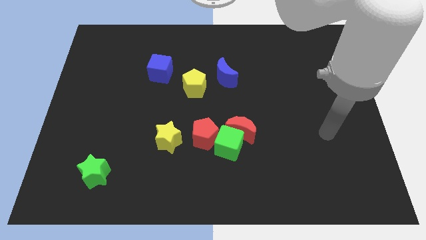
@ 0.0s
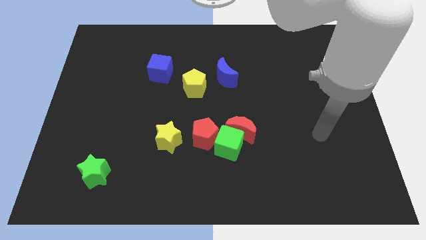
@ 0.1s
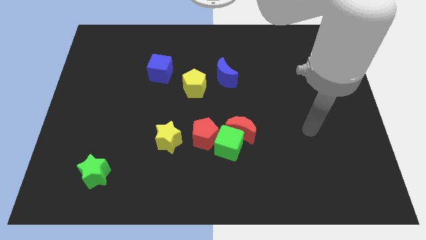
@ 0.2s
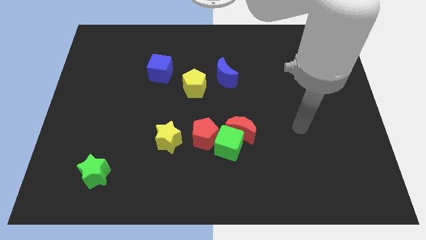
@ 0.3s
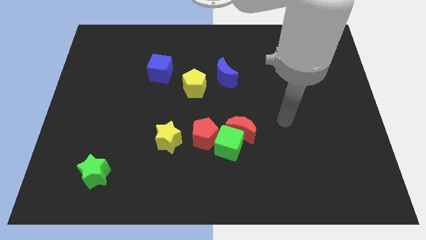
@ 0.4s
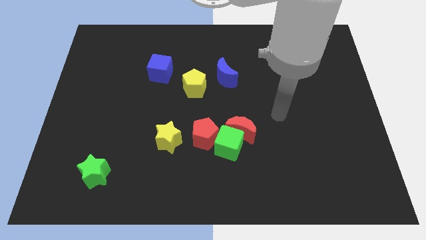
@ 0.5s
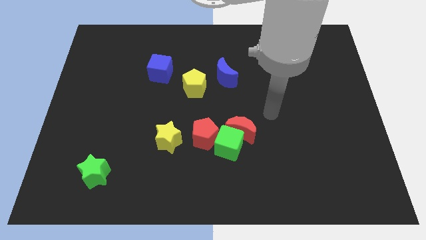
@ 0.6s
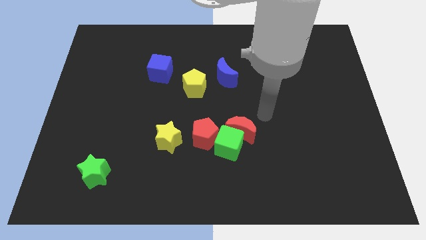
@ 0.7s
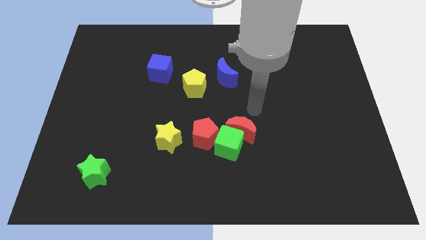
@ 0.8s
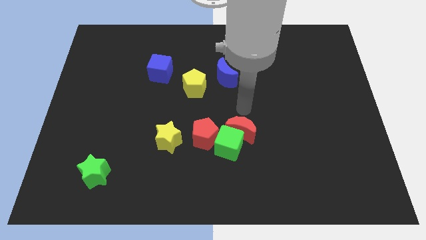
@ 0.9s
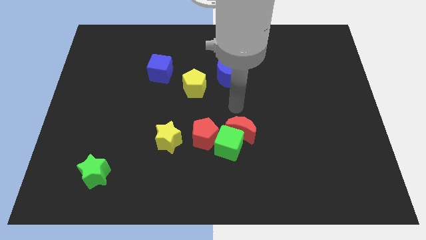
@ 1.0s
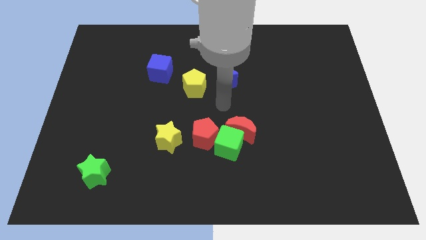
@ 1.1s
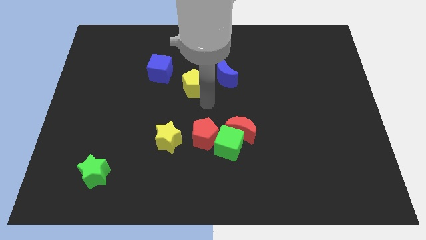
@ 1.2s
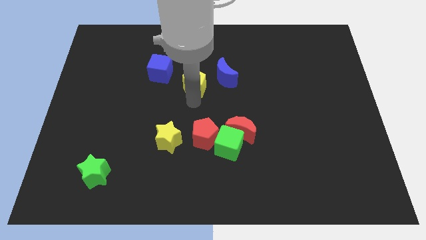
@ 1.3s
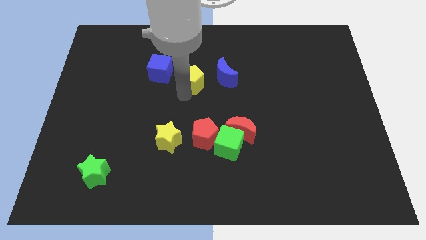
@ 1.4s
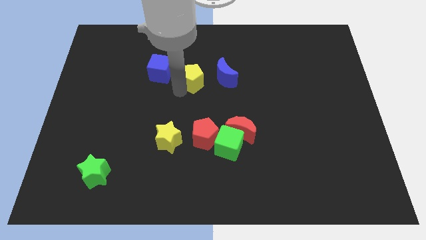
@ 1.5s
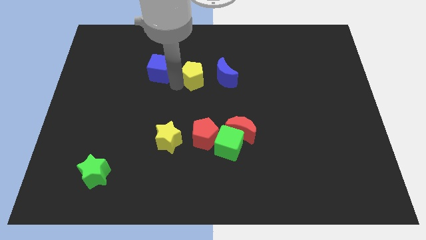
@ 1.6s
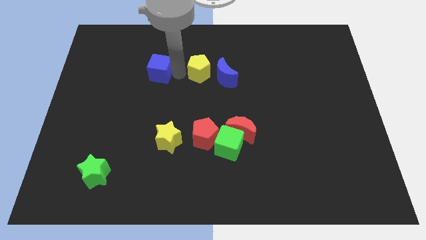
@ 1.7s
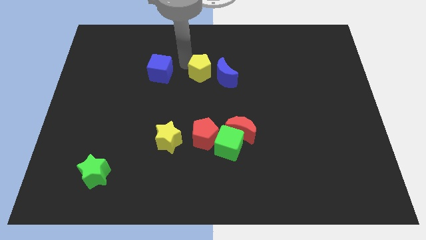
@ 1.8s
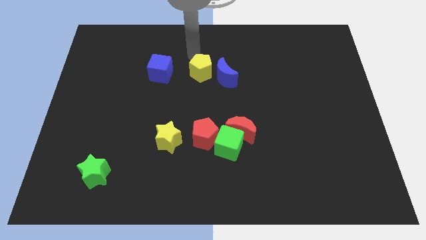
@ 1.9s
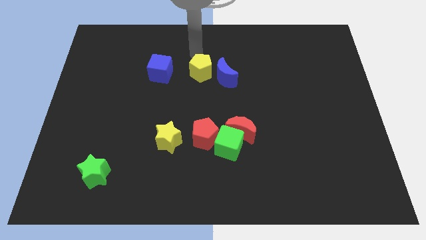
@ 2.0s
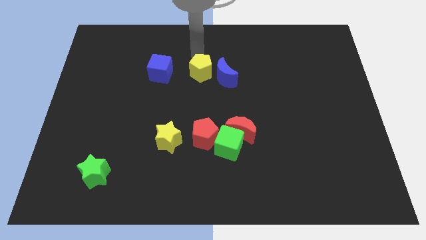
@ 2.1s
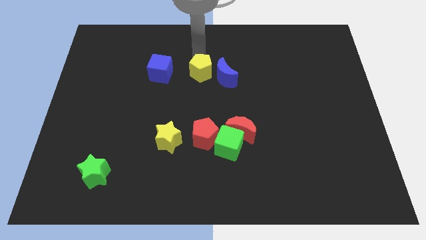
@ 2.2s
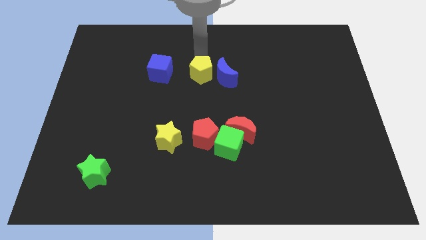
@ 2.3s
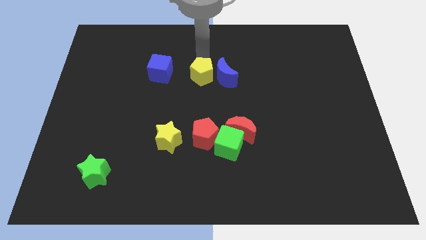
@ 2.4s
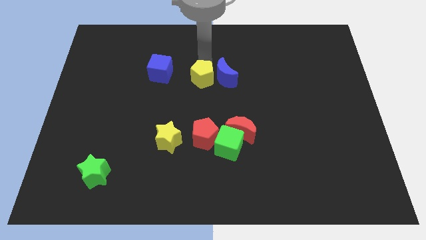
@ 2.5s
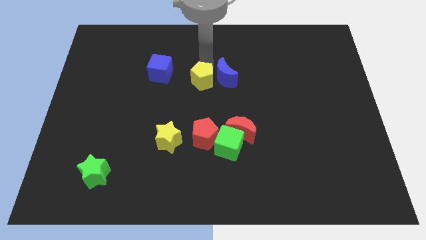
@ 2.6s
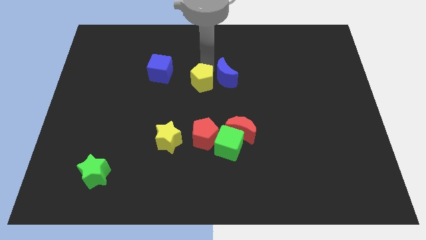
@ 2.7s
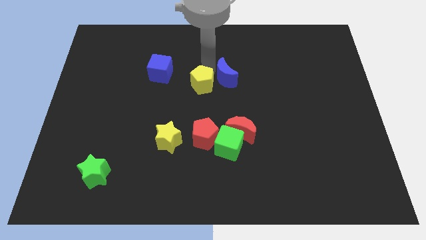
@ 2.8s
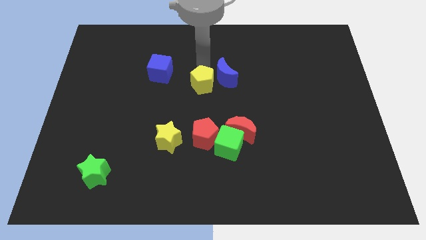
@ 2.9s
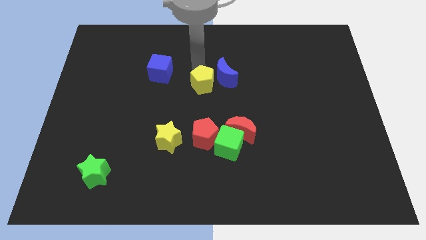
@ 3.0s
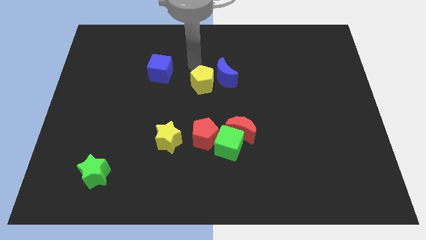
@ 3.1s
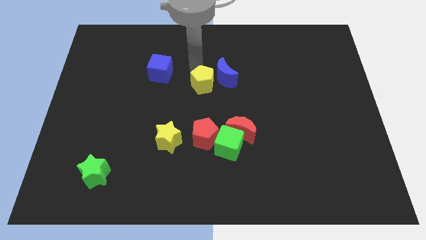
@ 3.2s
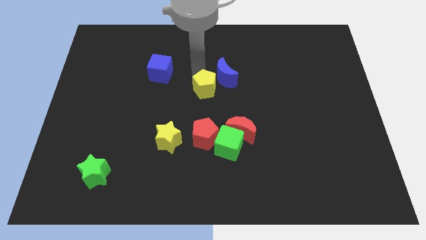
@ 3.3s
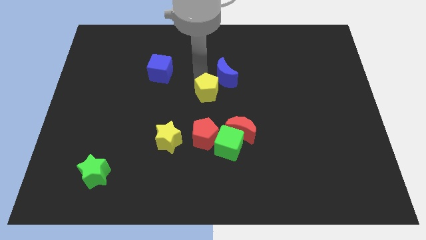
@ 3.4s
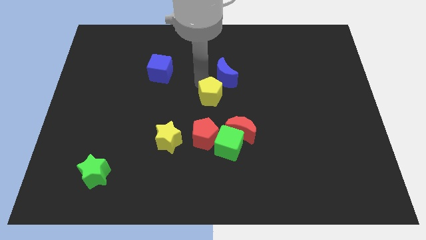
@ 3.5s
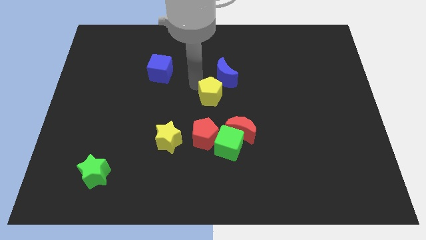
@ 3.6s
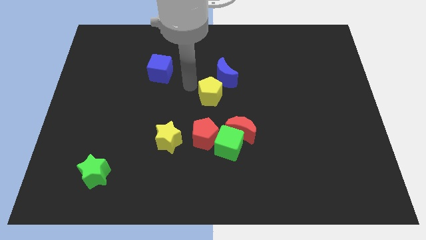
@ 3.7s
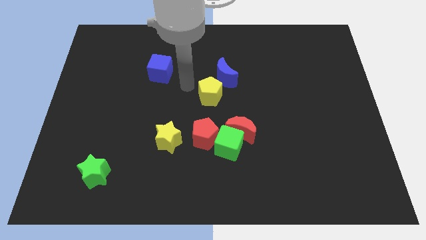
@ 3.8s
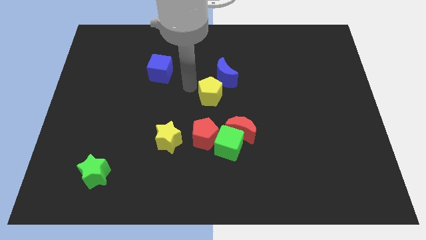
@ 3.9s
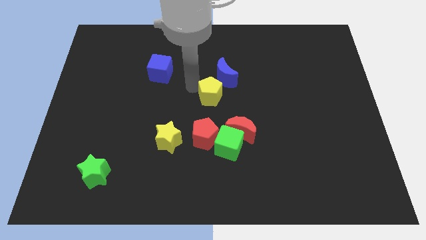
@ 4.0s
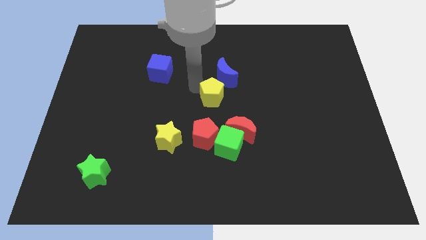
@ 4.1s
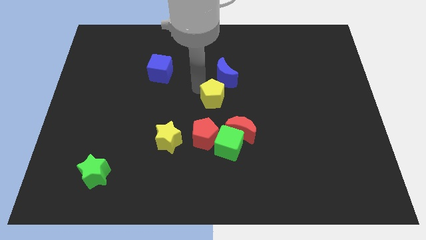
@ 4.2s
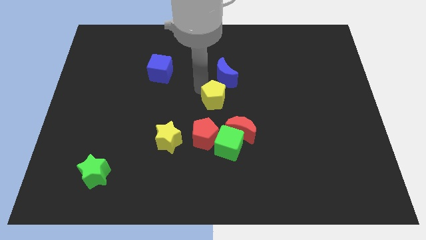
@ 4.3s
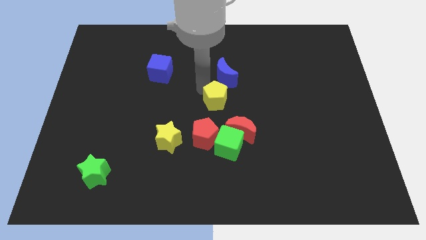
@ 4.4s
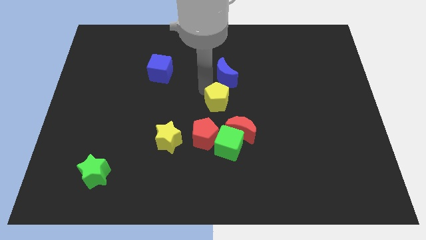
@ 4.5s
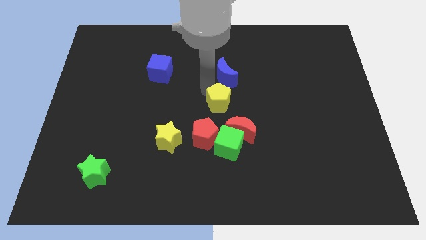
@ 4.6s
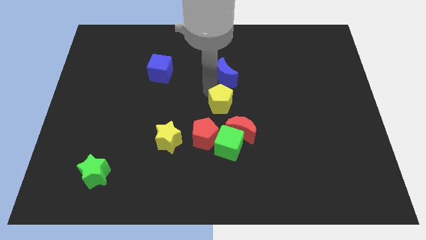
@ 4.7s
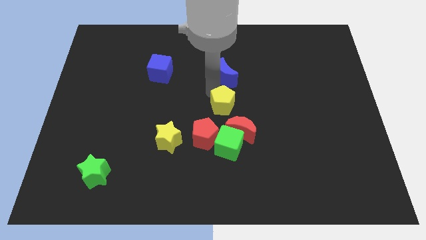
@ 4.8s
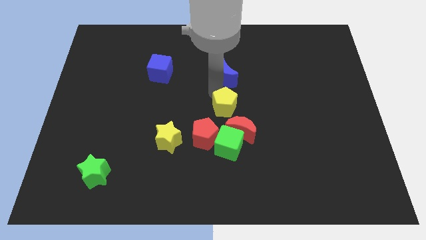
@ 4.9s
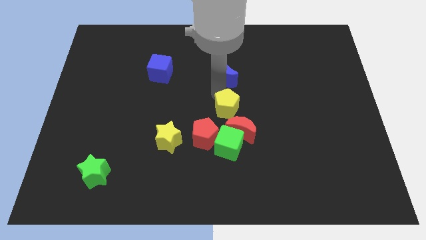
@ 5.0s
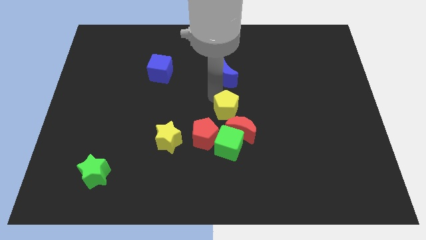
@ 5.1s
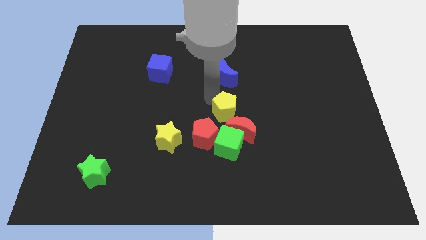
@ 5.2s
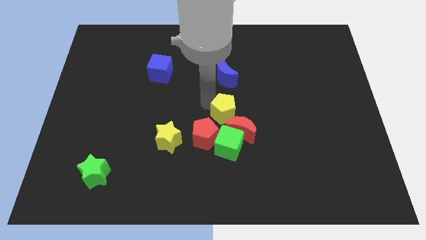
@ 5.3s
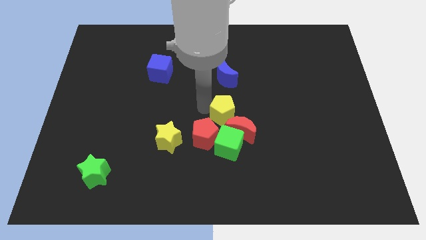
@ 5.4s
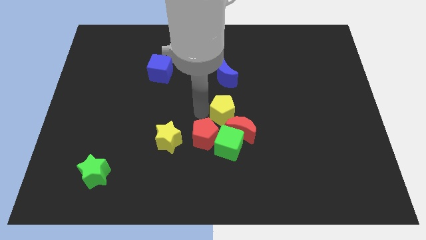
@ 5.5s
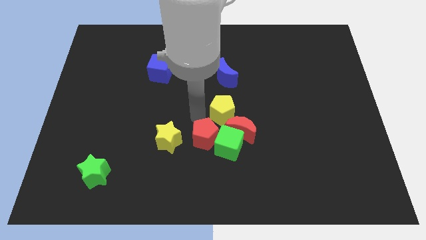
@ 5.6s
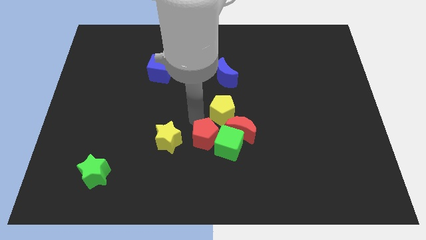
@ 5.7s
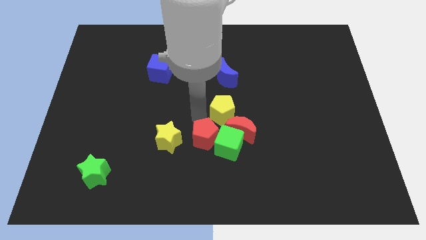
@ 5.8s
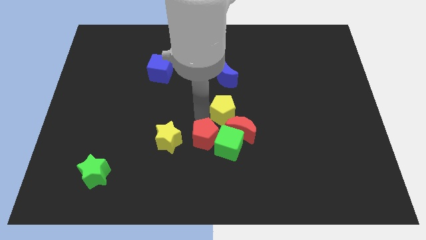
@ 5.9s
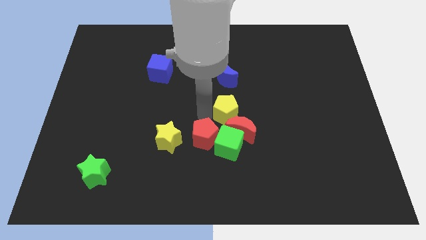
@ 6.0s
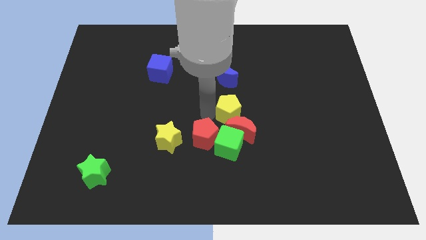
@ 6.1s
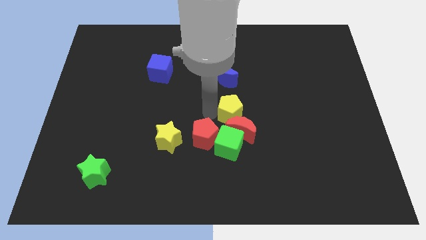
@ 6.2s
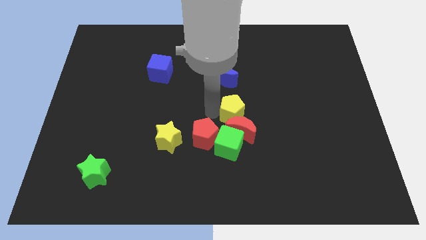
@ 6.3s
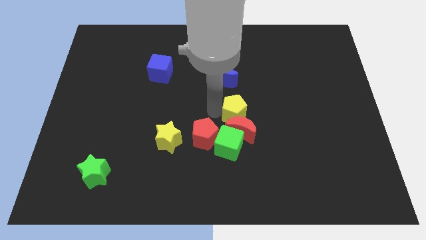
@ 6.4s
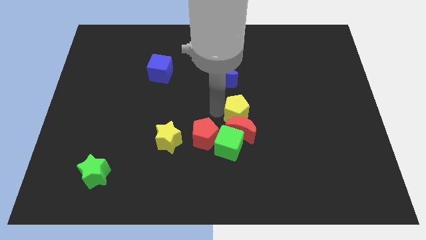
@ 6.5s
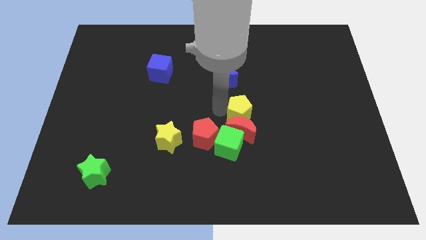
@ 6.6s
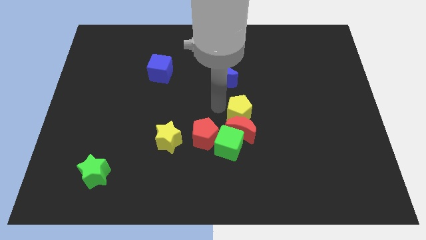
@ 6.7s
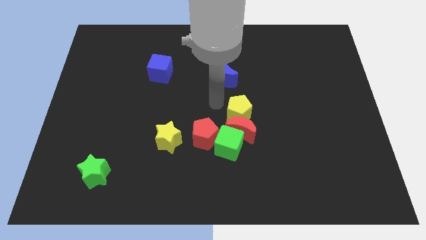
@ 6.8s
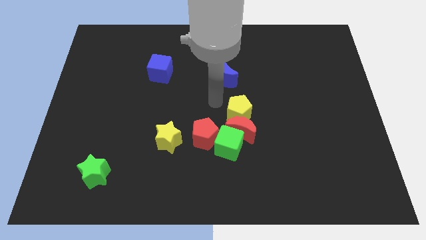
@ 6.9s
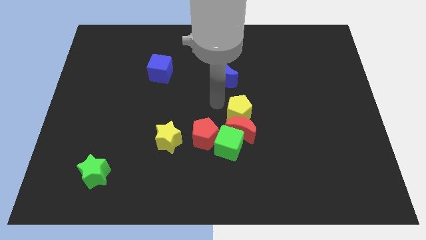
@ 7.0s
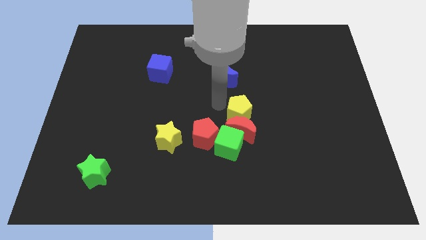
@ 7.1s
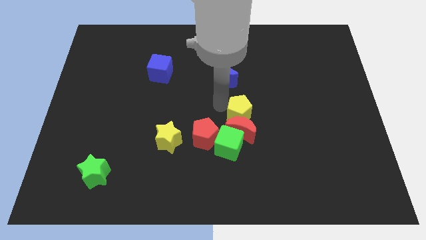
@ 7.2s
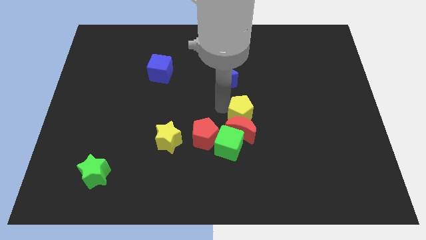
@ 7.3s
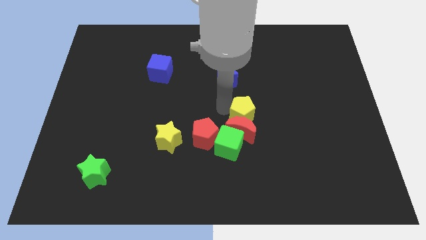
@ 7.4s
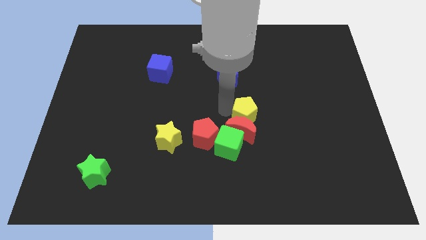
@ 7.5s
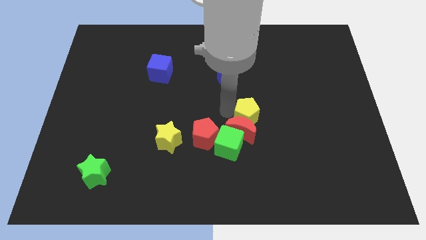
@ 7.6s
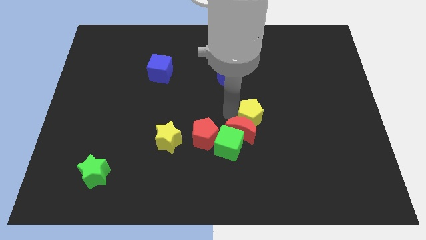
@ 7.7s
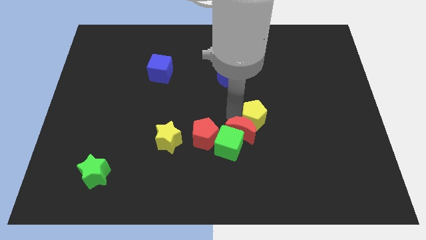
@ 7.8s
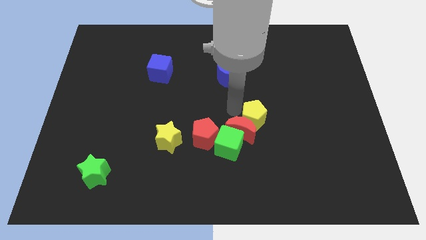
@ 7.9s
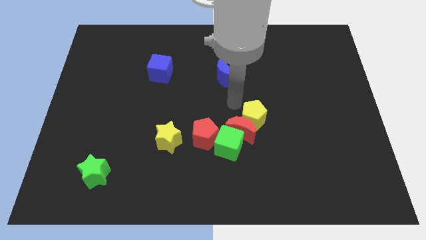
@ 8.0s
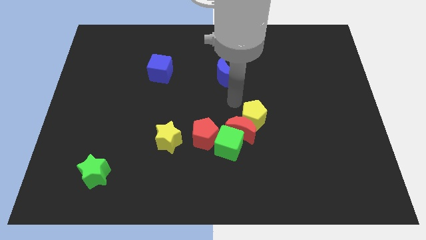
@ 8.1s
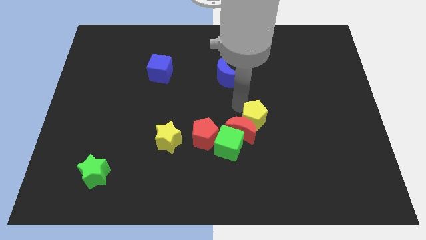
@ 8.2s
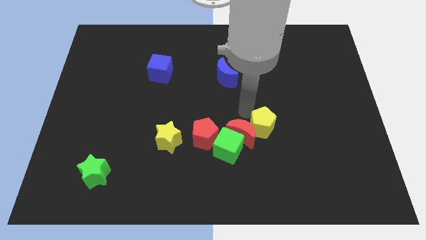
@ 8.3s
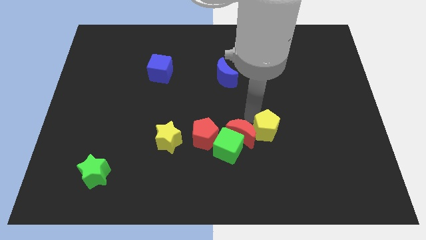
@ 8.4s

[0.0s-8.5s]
slide the yellow pentagon downwards and to the right diagonally
